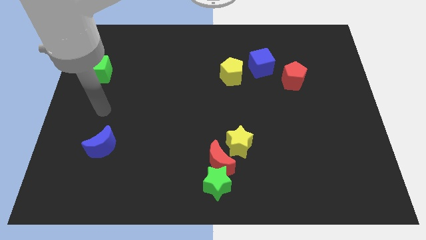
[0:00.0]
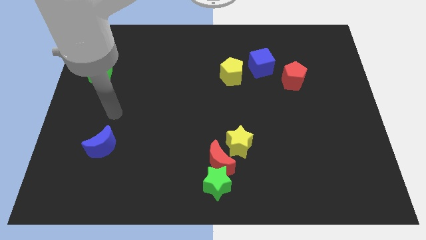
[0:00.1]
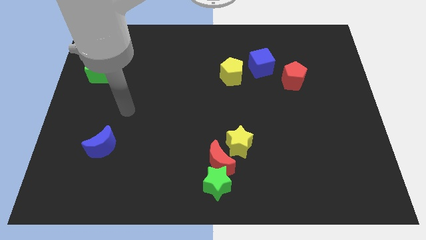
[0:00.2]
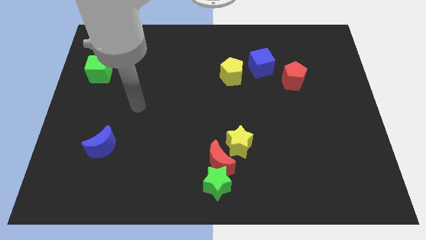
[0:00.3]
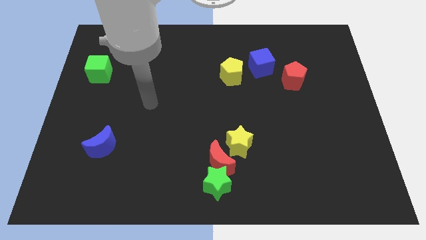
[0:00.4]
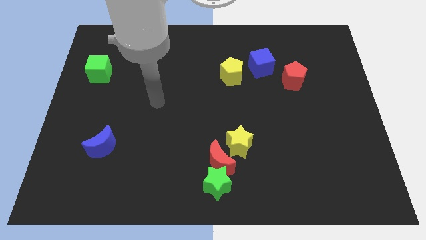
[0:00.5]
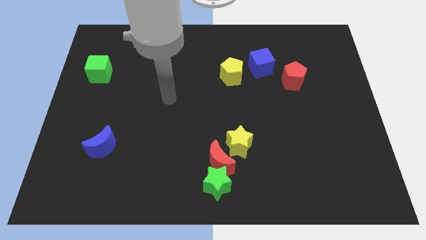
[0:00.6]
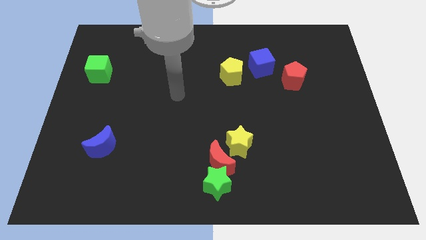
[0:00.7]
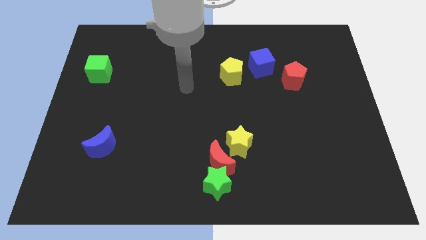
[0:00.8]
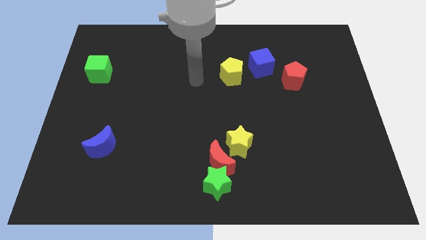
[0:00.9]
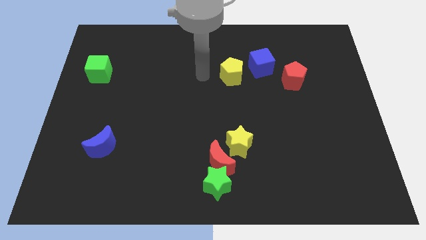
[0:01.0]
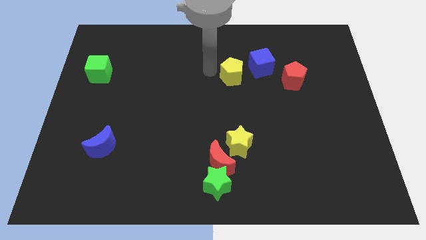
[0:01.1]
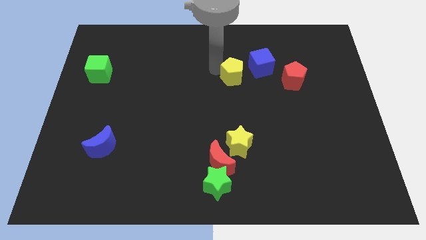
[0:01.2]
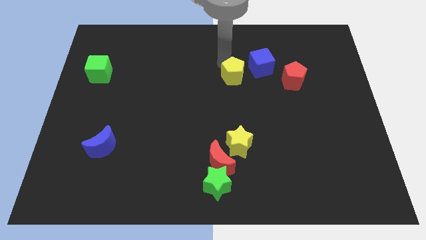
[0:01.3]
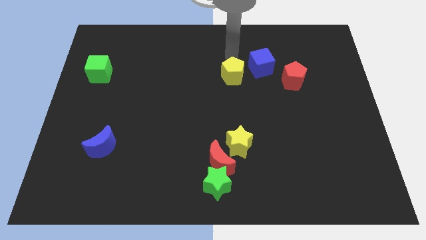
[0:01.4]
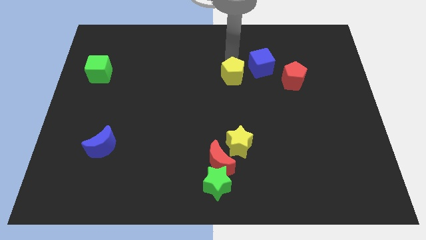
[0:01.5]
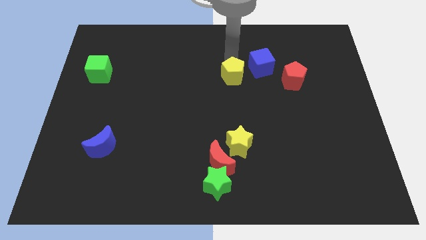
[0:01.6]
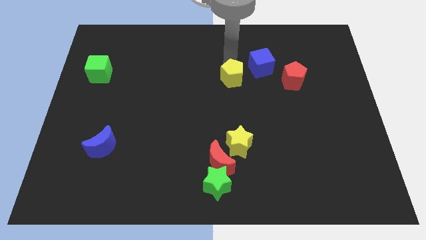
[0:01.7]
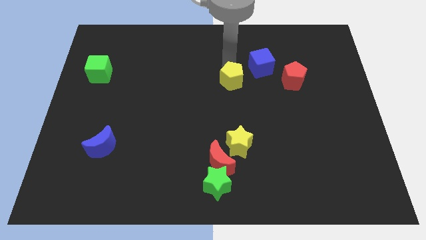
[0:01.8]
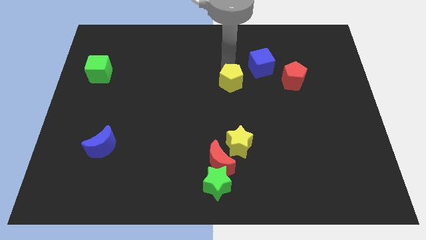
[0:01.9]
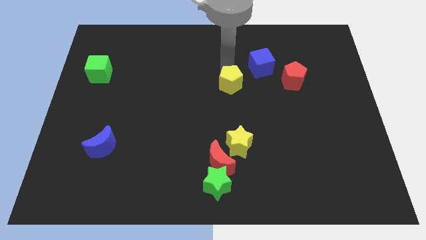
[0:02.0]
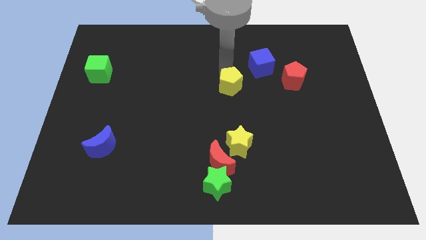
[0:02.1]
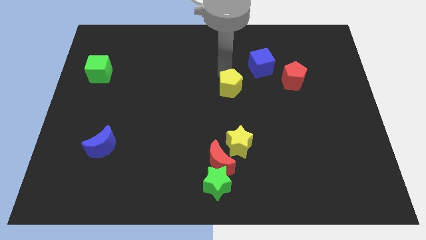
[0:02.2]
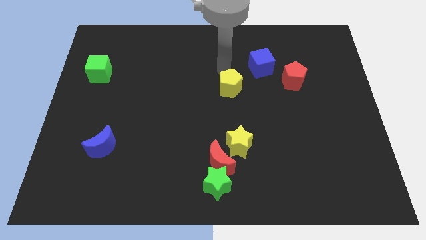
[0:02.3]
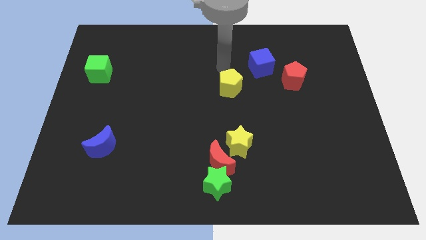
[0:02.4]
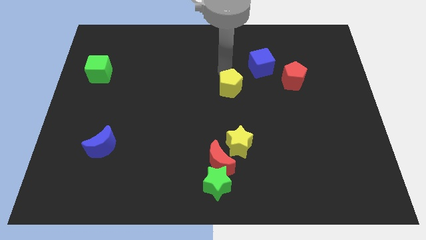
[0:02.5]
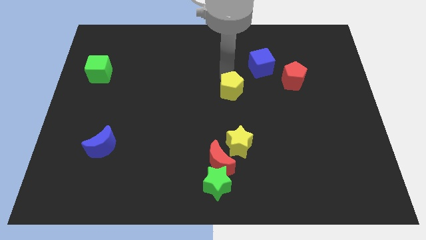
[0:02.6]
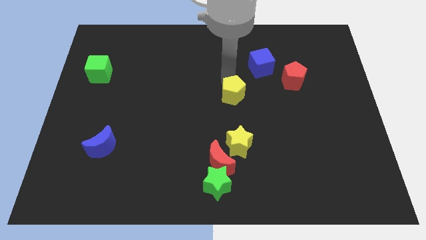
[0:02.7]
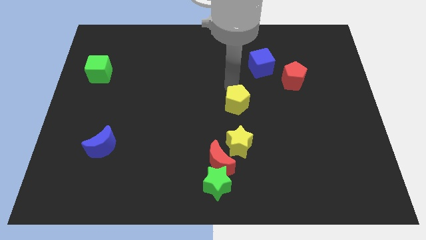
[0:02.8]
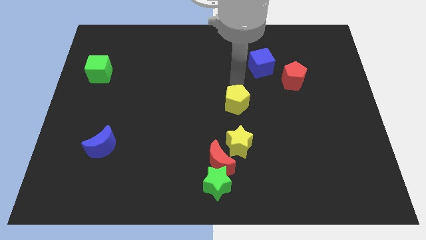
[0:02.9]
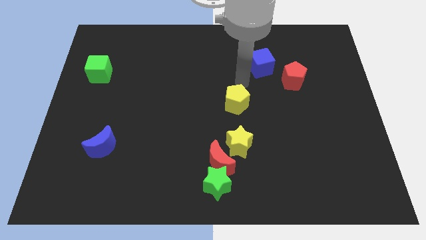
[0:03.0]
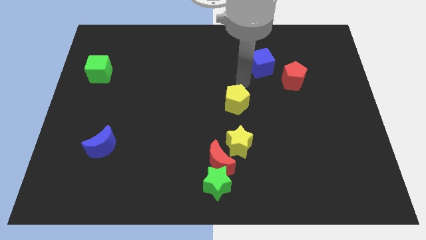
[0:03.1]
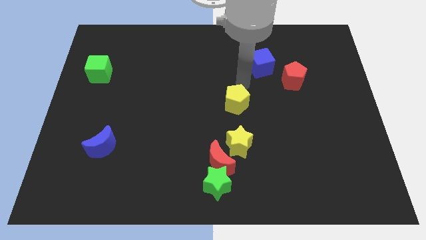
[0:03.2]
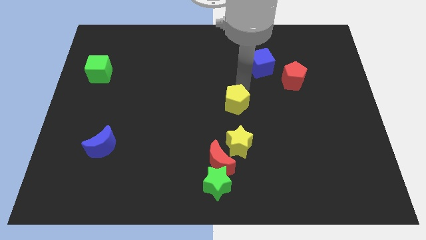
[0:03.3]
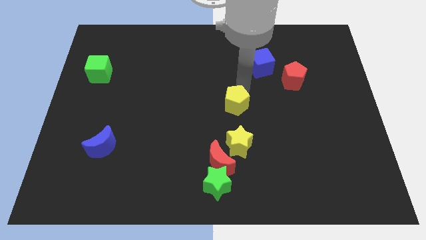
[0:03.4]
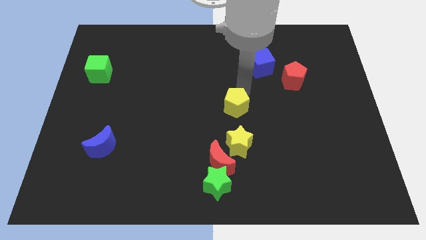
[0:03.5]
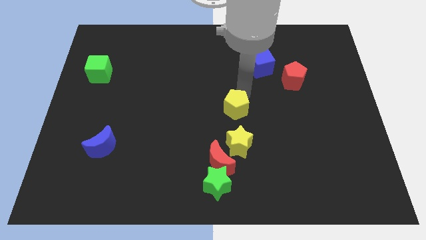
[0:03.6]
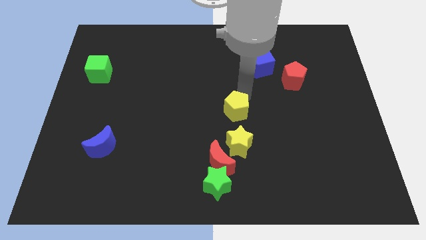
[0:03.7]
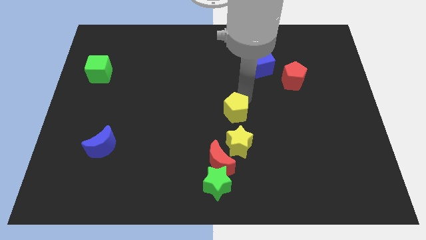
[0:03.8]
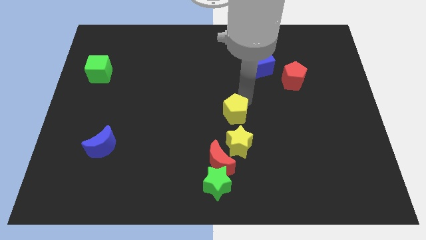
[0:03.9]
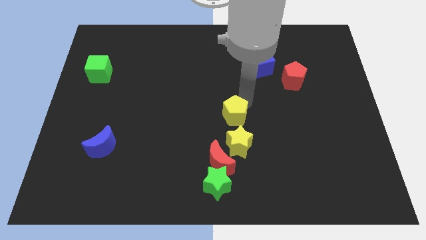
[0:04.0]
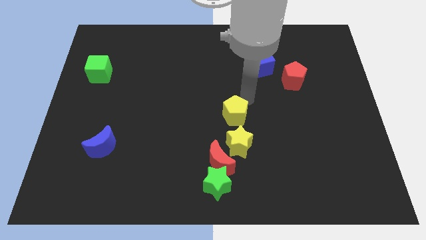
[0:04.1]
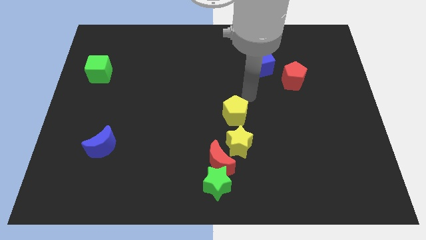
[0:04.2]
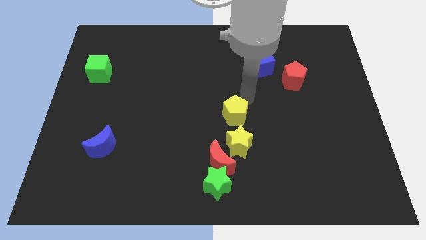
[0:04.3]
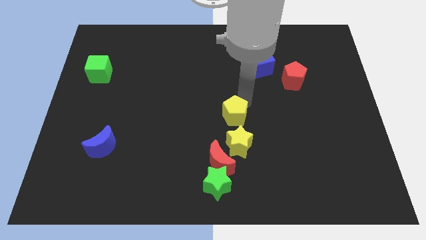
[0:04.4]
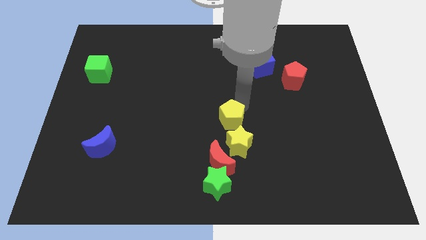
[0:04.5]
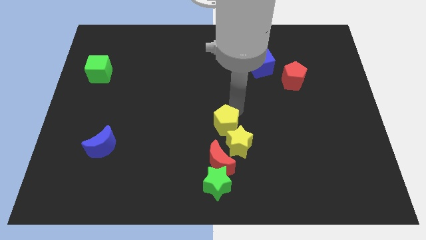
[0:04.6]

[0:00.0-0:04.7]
put the yellow pentagon close to the yellow star

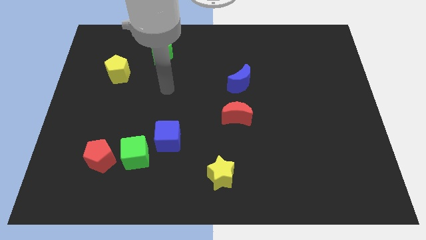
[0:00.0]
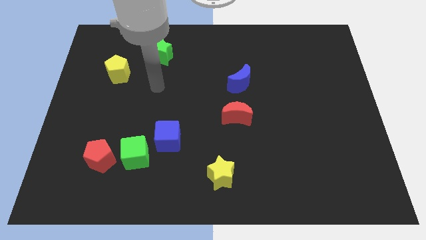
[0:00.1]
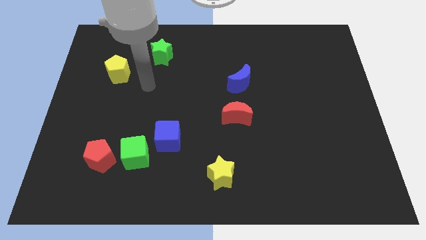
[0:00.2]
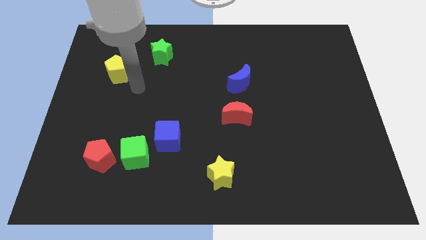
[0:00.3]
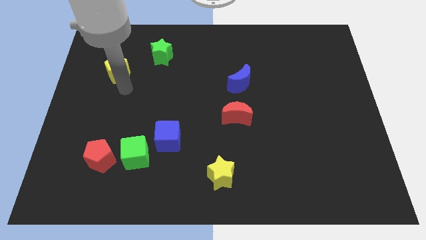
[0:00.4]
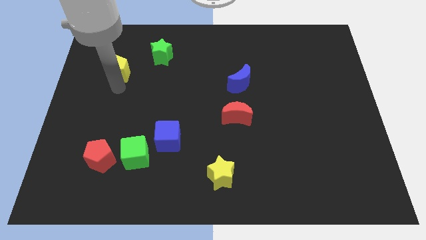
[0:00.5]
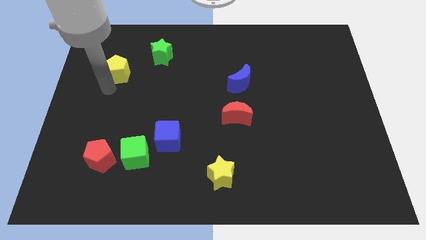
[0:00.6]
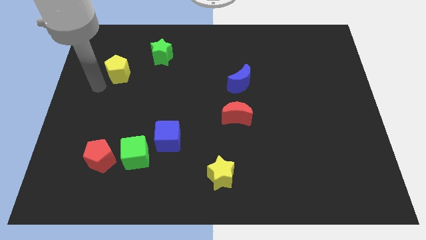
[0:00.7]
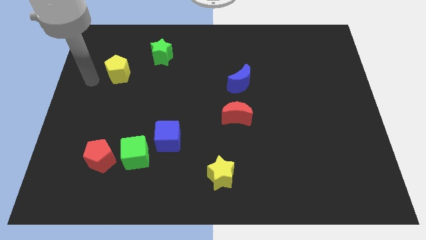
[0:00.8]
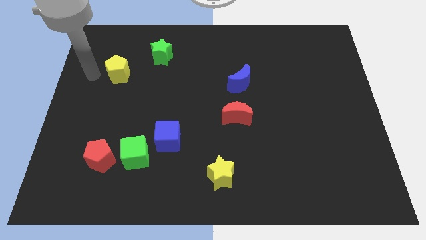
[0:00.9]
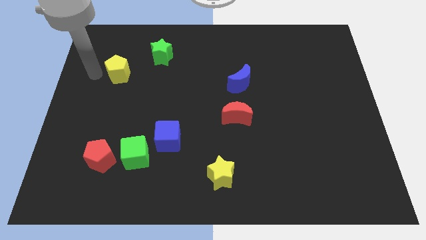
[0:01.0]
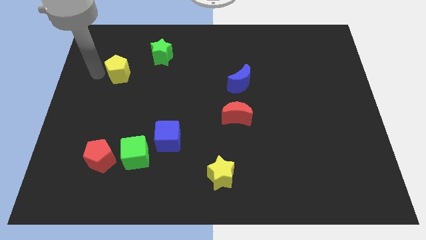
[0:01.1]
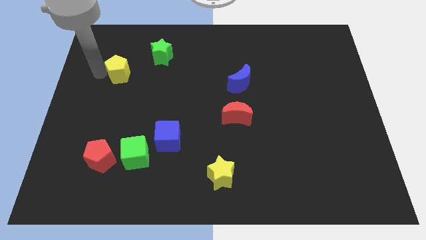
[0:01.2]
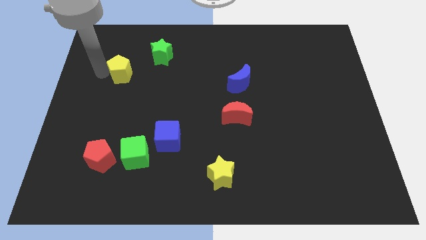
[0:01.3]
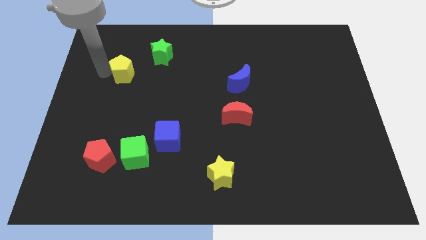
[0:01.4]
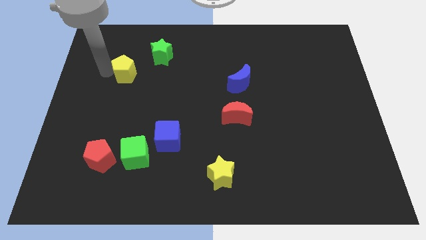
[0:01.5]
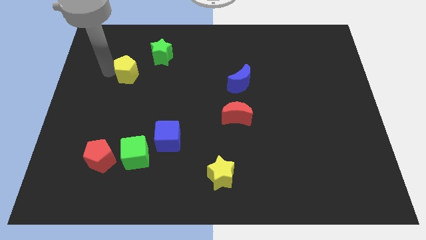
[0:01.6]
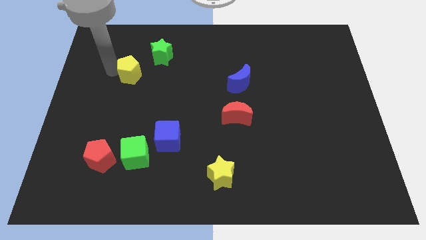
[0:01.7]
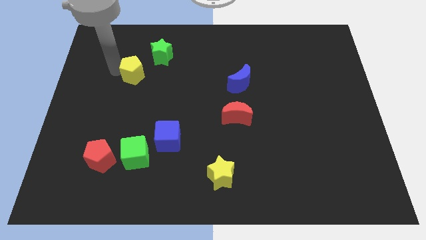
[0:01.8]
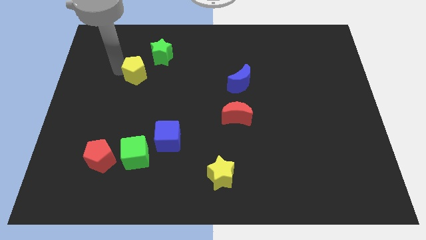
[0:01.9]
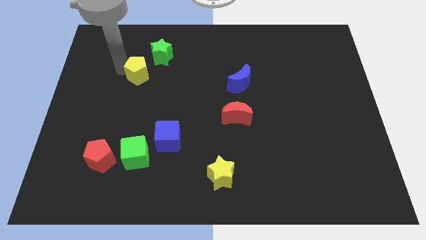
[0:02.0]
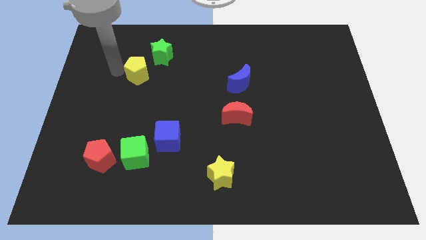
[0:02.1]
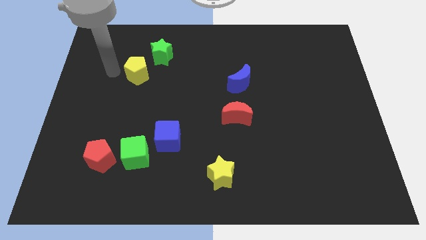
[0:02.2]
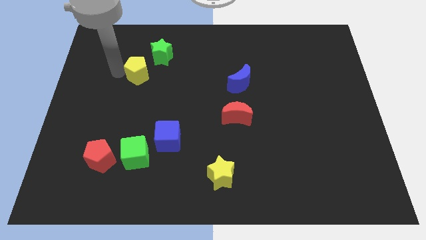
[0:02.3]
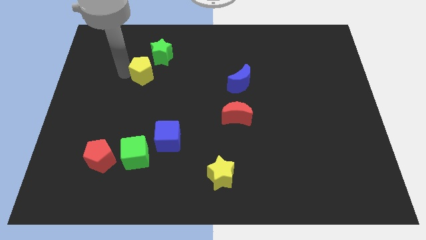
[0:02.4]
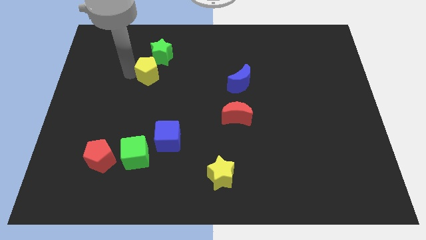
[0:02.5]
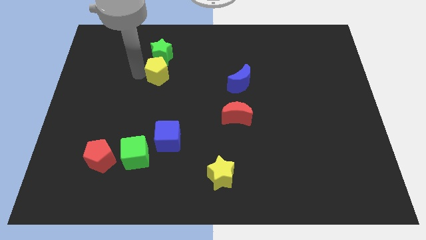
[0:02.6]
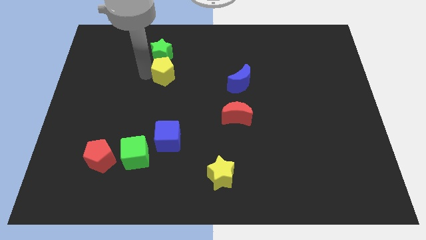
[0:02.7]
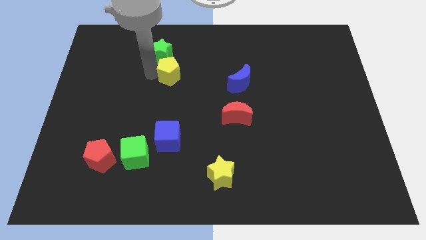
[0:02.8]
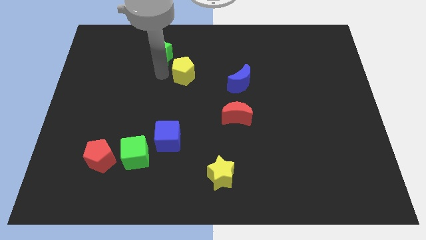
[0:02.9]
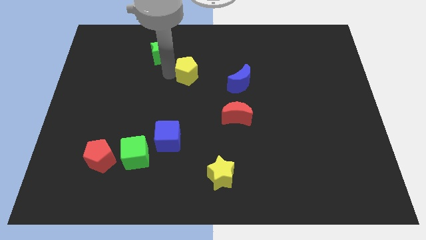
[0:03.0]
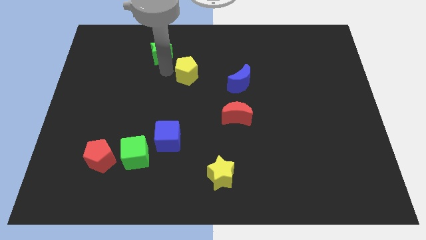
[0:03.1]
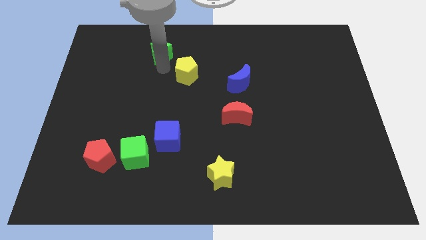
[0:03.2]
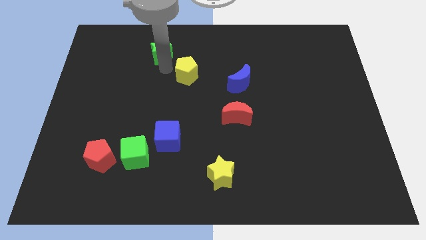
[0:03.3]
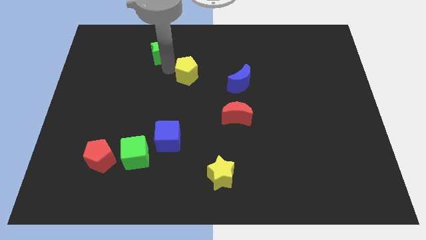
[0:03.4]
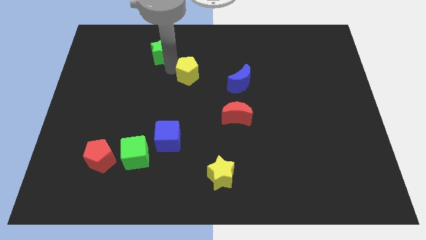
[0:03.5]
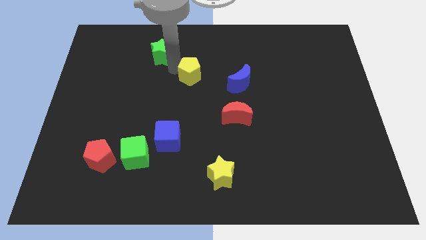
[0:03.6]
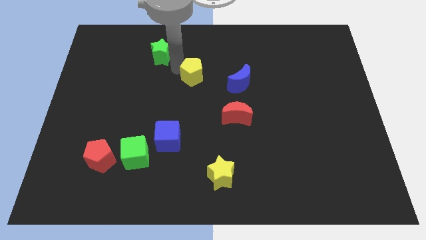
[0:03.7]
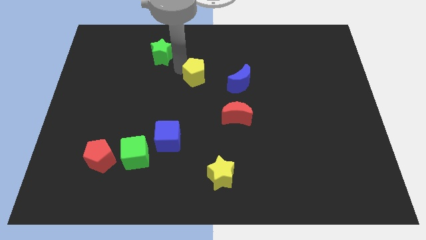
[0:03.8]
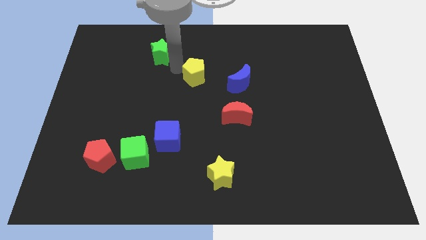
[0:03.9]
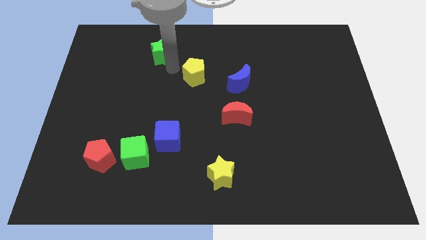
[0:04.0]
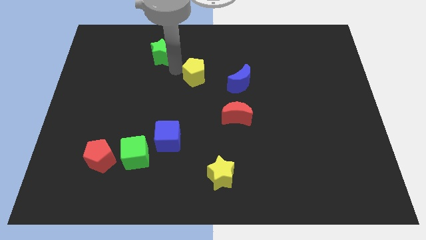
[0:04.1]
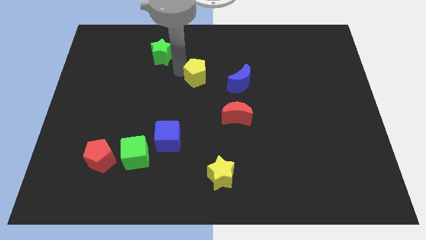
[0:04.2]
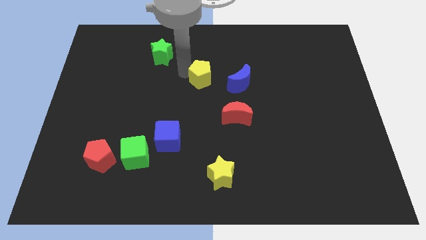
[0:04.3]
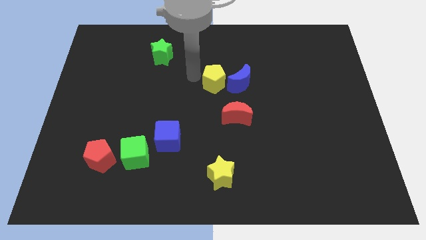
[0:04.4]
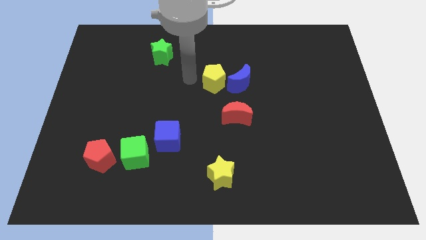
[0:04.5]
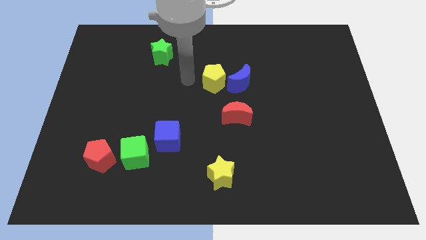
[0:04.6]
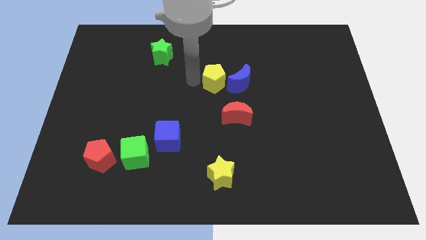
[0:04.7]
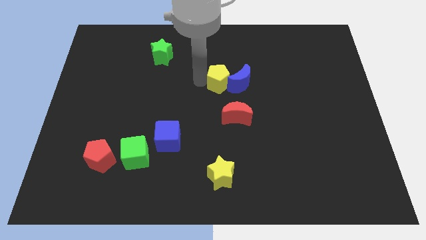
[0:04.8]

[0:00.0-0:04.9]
put the yellow pentagon next to the blue moon
